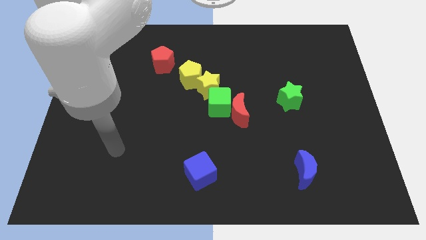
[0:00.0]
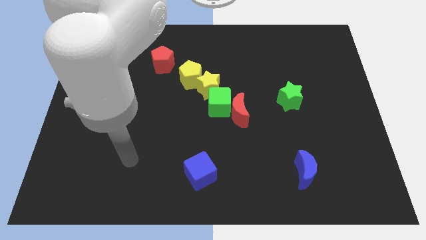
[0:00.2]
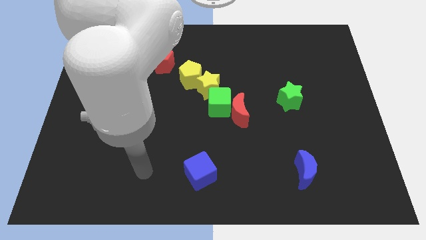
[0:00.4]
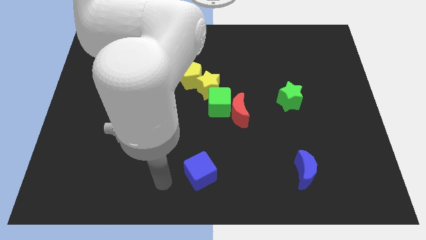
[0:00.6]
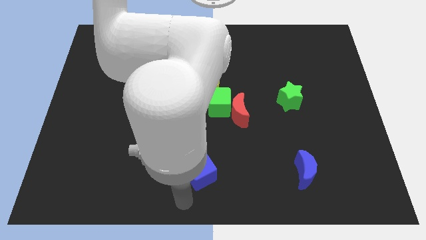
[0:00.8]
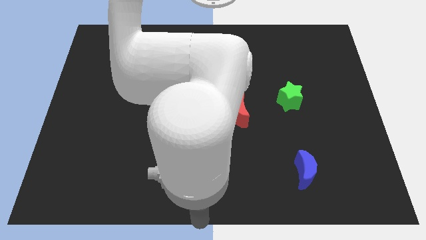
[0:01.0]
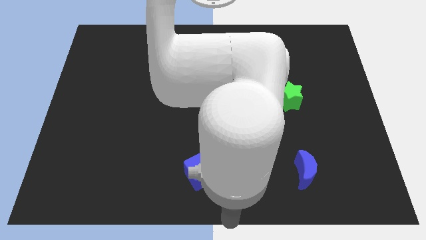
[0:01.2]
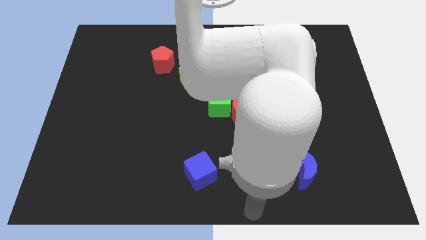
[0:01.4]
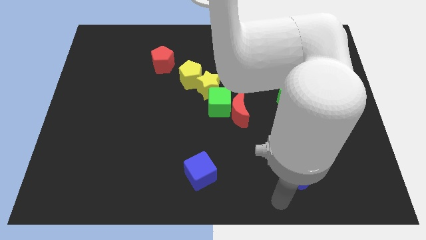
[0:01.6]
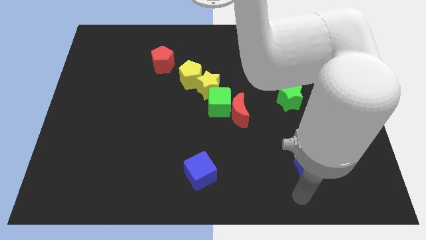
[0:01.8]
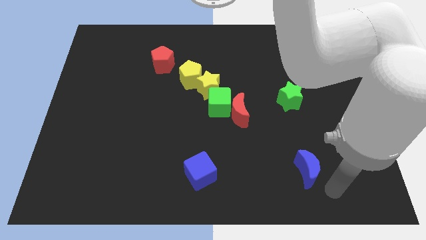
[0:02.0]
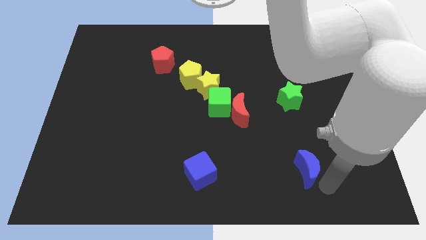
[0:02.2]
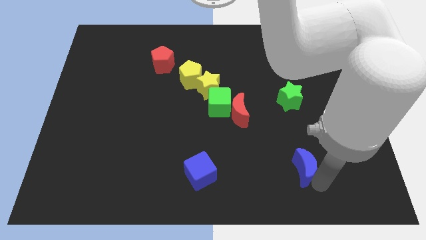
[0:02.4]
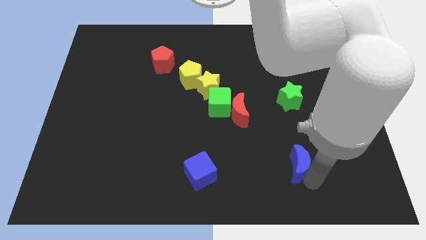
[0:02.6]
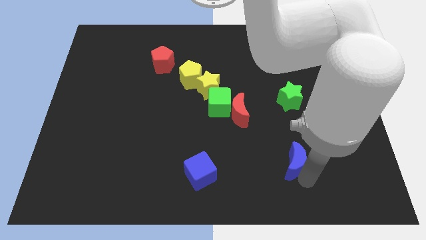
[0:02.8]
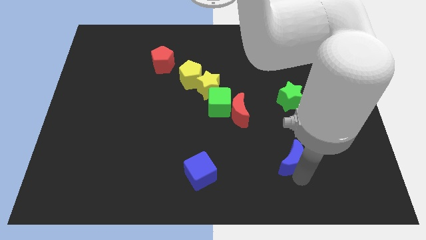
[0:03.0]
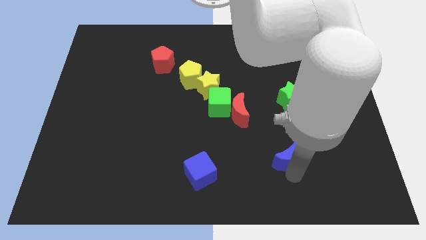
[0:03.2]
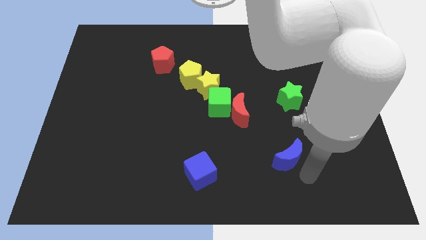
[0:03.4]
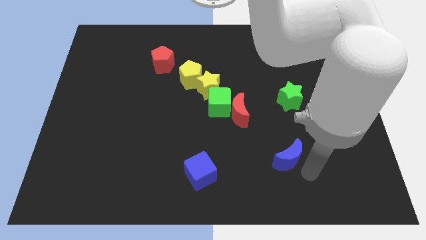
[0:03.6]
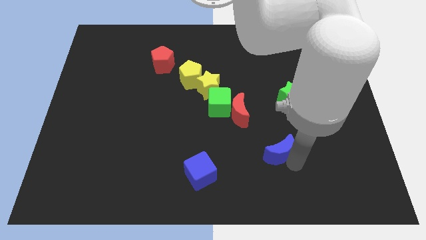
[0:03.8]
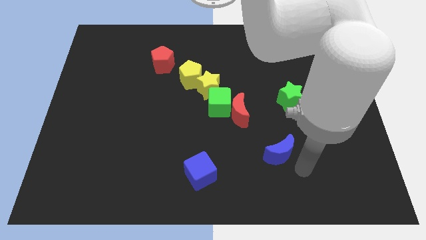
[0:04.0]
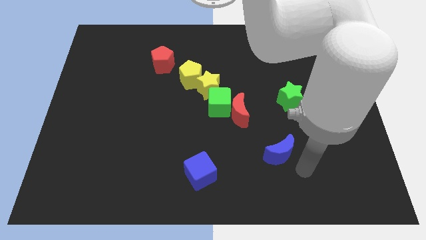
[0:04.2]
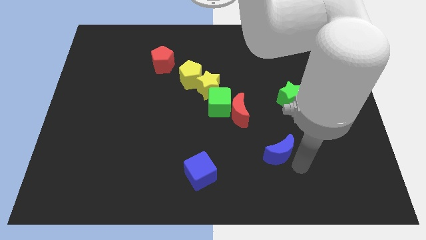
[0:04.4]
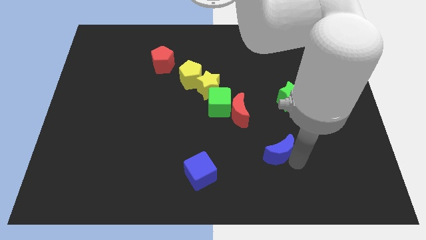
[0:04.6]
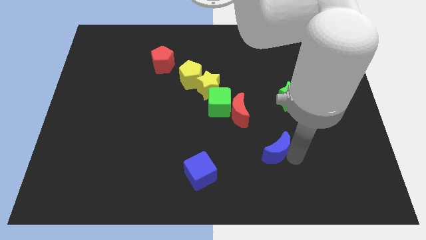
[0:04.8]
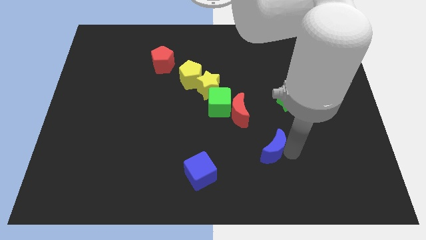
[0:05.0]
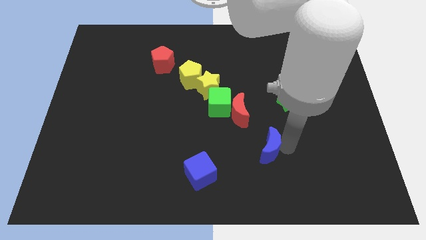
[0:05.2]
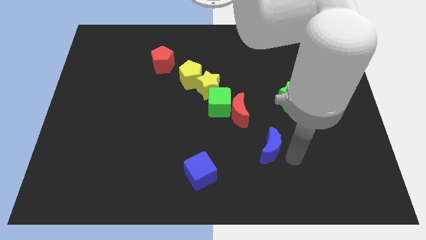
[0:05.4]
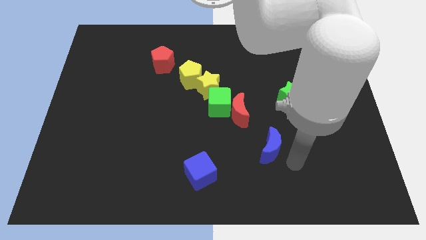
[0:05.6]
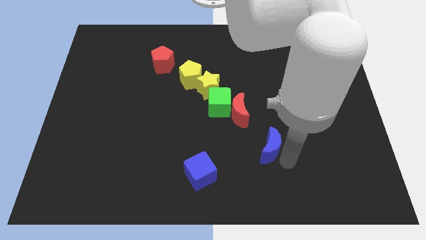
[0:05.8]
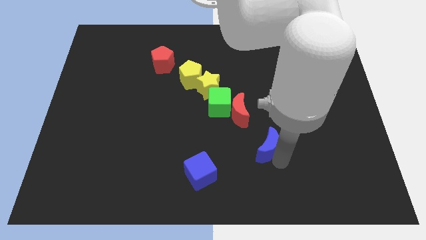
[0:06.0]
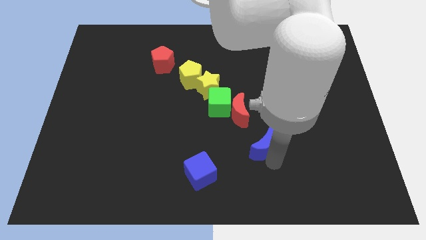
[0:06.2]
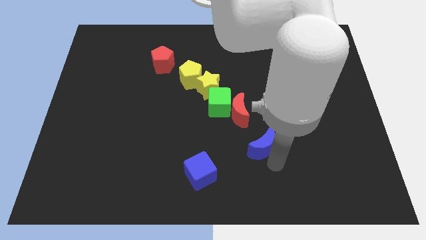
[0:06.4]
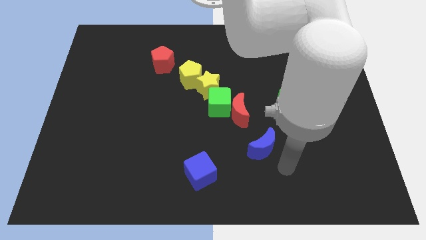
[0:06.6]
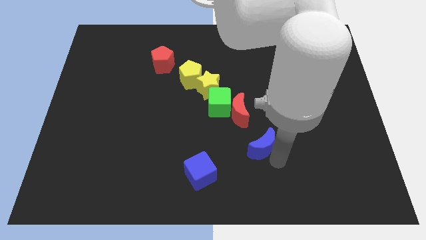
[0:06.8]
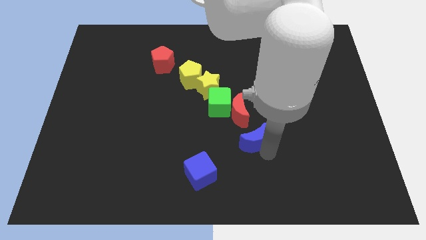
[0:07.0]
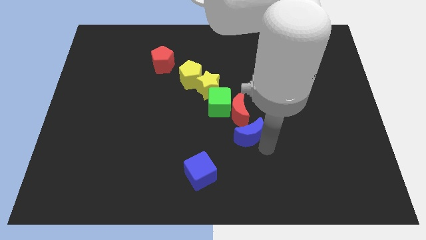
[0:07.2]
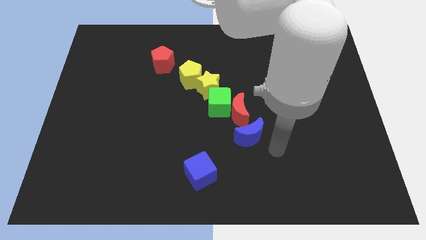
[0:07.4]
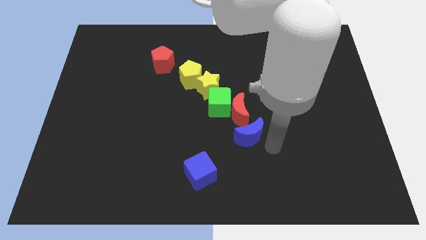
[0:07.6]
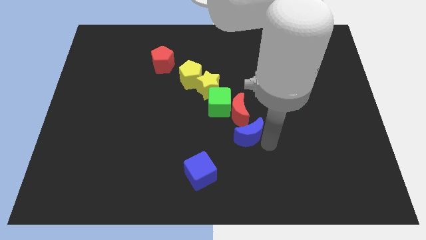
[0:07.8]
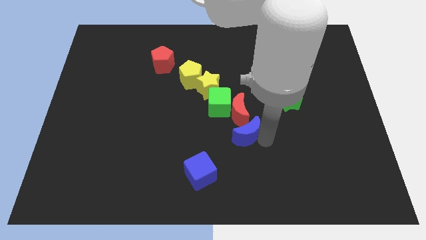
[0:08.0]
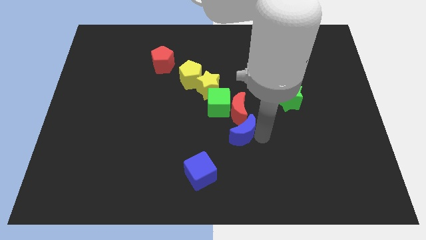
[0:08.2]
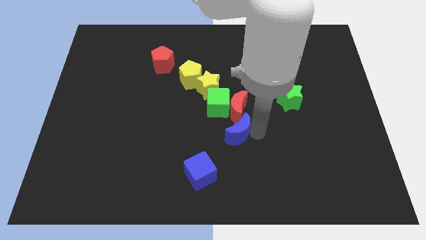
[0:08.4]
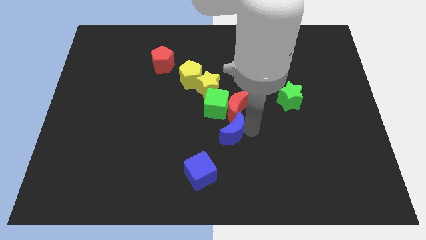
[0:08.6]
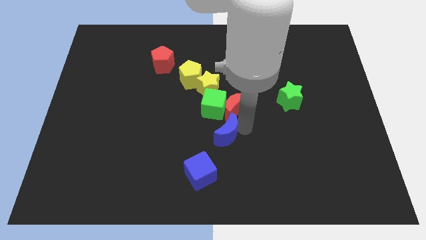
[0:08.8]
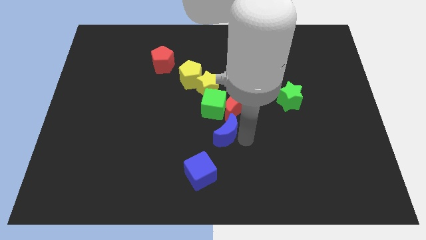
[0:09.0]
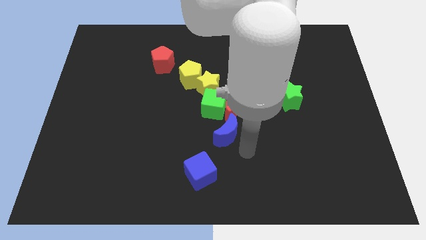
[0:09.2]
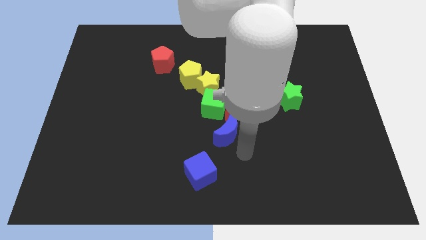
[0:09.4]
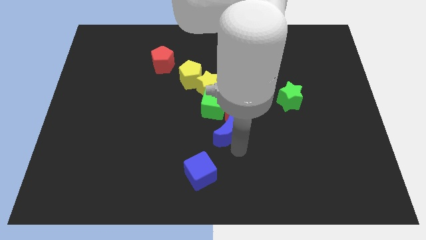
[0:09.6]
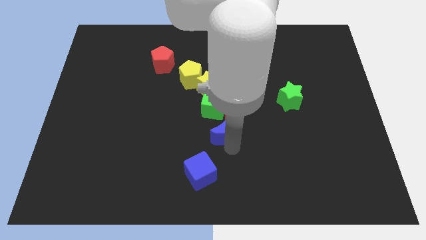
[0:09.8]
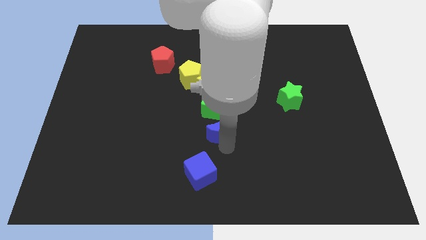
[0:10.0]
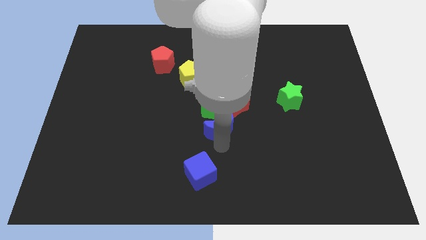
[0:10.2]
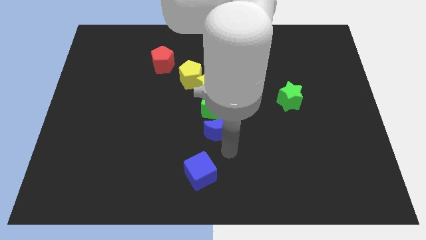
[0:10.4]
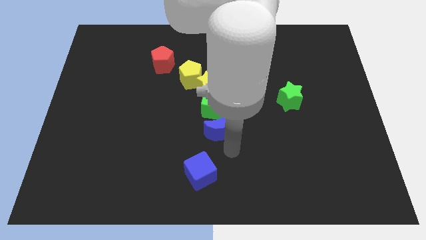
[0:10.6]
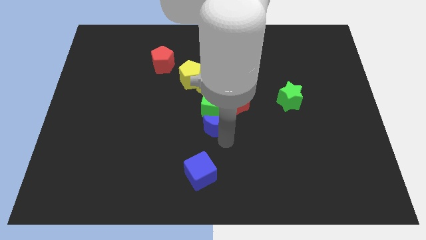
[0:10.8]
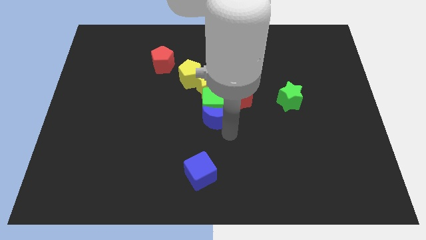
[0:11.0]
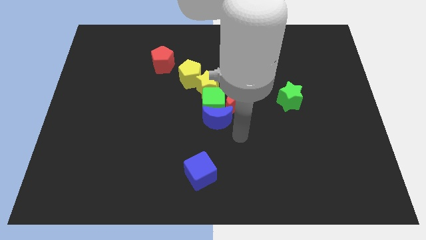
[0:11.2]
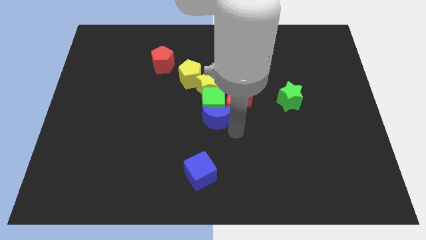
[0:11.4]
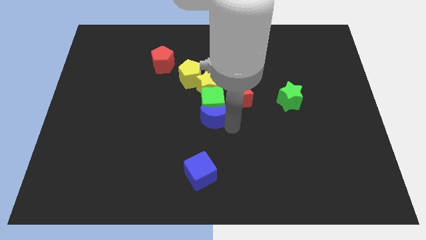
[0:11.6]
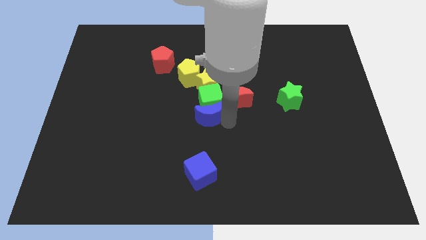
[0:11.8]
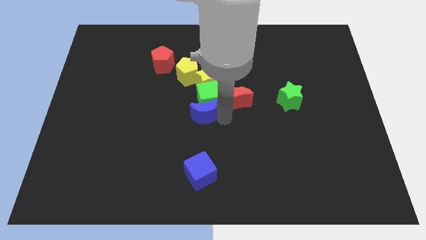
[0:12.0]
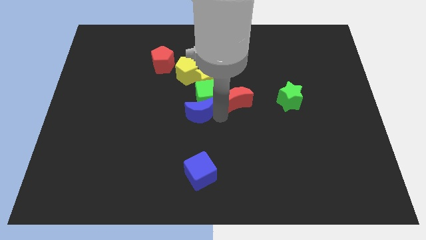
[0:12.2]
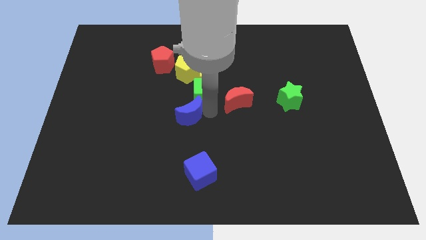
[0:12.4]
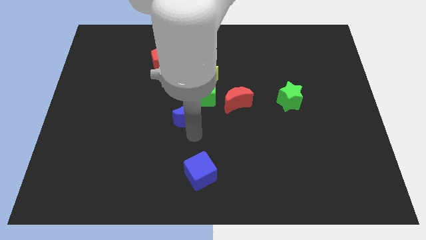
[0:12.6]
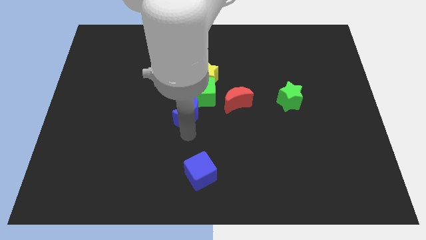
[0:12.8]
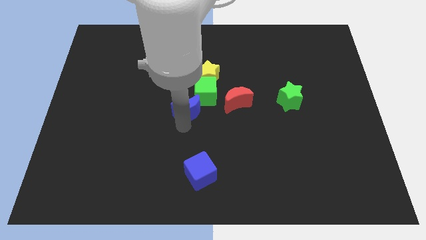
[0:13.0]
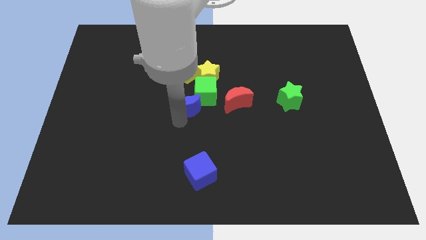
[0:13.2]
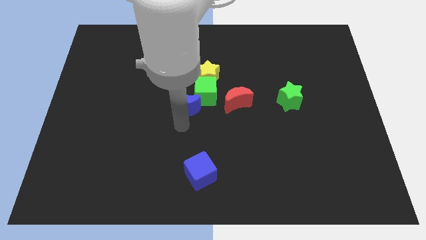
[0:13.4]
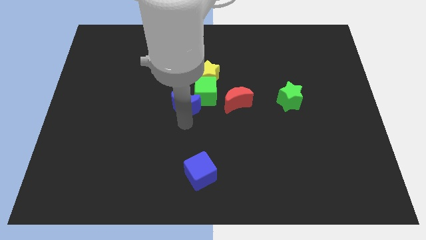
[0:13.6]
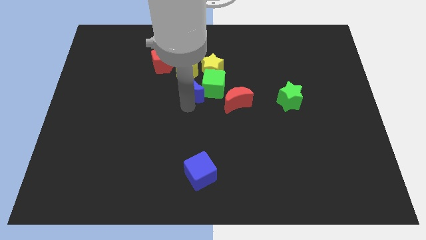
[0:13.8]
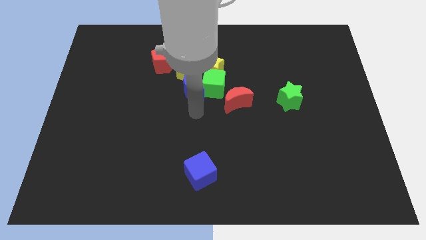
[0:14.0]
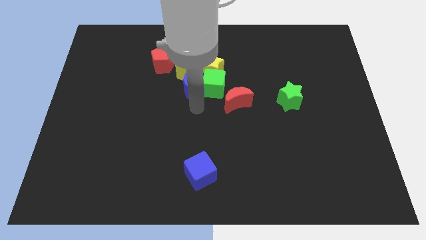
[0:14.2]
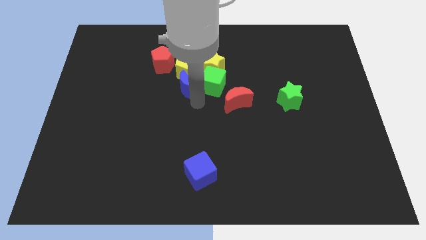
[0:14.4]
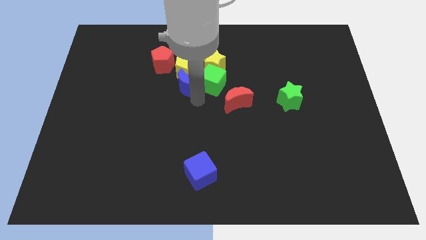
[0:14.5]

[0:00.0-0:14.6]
slide the blue moon towards the yellow pentagon
